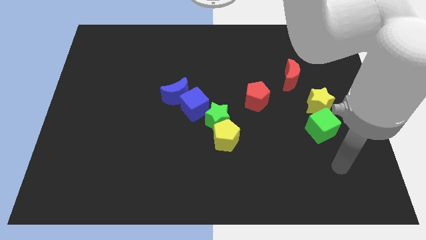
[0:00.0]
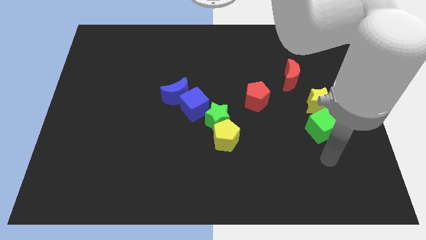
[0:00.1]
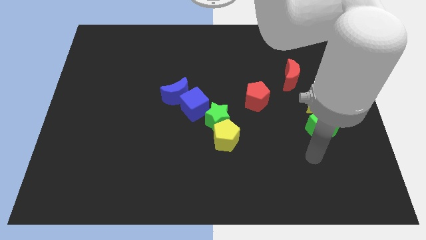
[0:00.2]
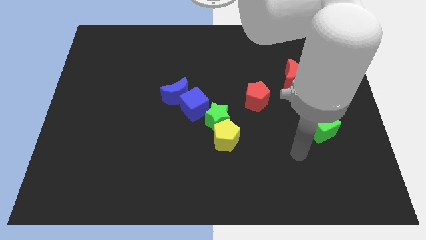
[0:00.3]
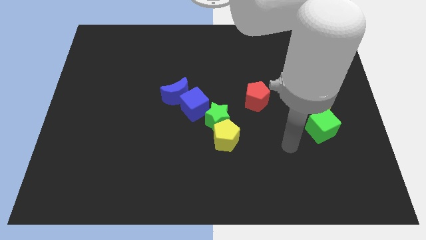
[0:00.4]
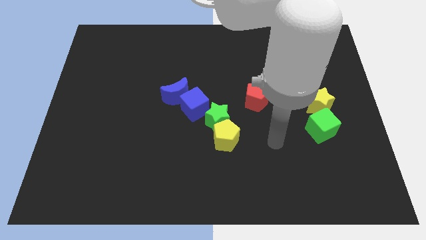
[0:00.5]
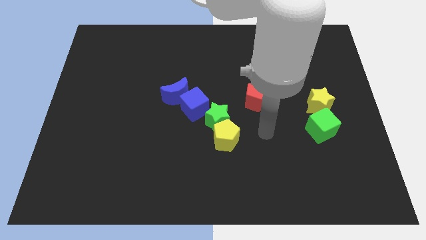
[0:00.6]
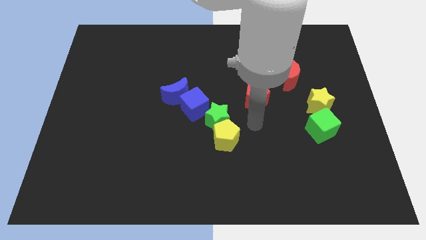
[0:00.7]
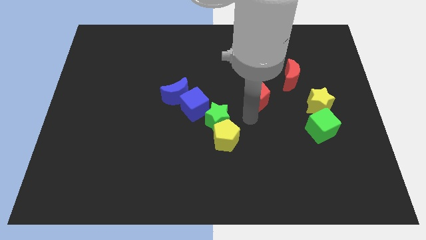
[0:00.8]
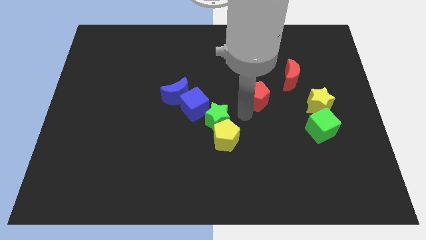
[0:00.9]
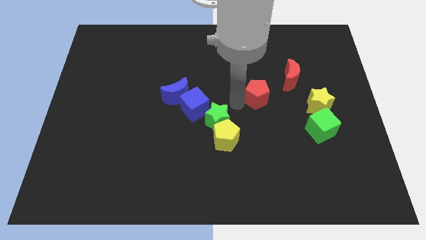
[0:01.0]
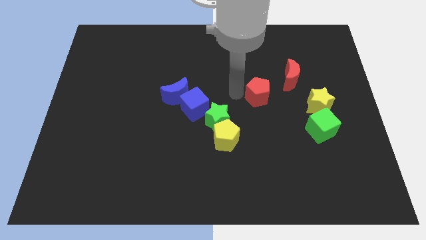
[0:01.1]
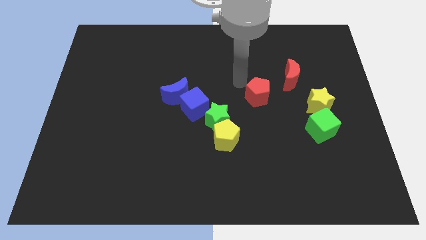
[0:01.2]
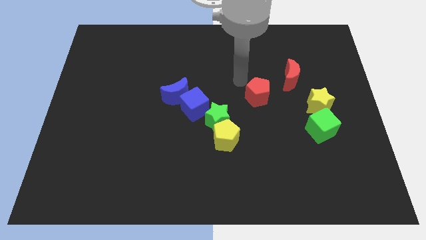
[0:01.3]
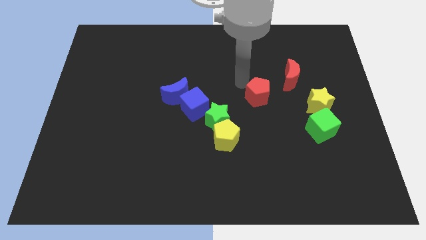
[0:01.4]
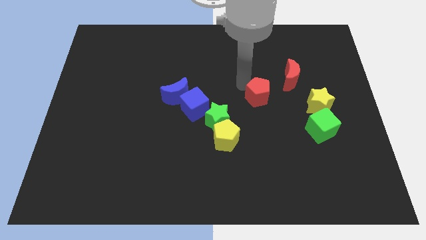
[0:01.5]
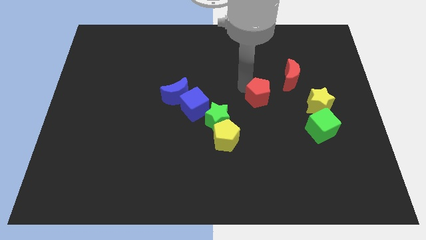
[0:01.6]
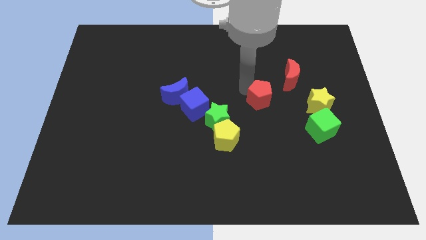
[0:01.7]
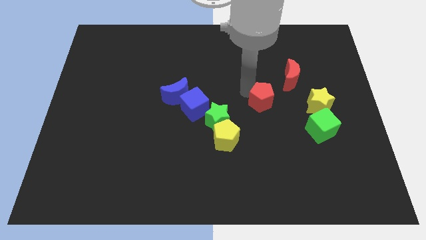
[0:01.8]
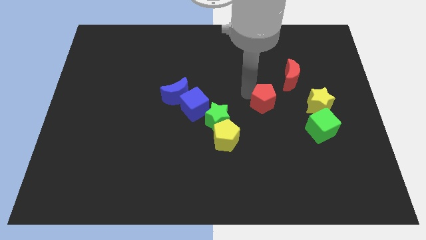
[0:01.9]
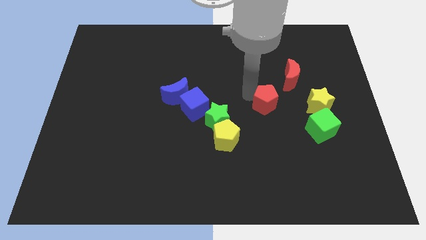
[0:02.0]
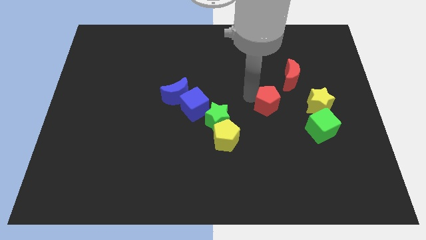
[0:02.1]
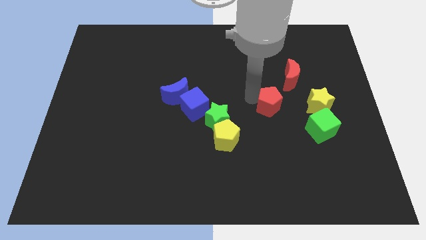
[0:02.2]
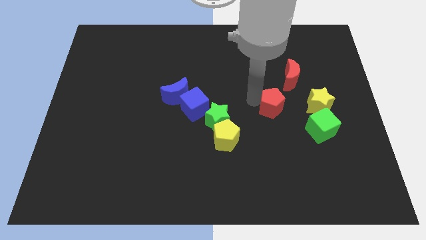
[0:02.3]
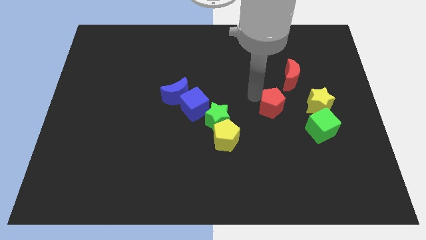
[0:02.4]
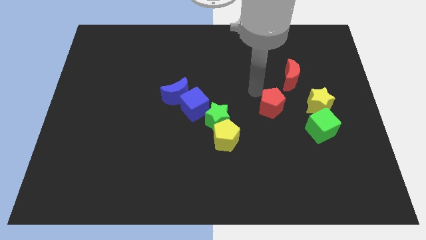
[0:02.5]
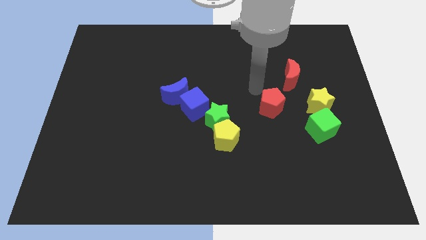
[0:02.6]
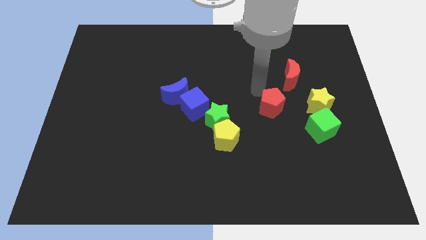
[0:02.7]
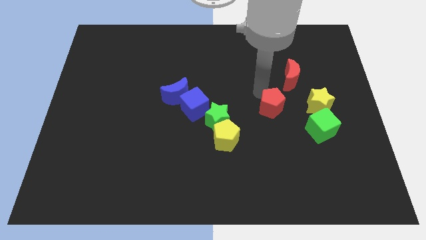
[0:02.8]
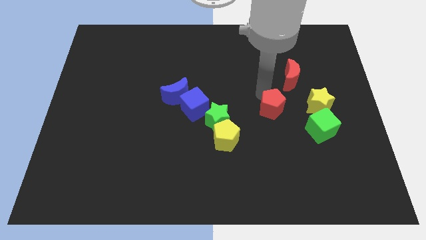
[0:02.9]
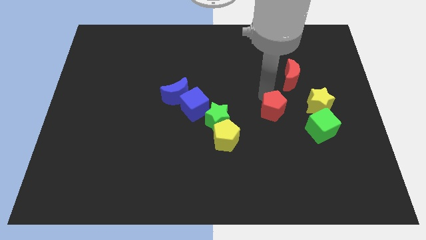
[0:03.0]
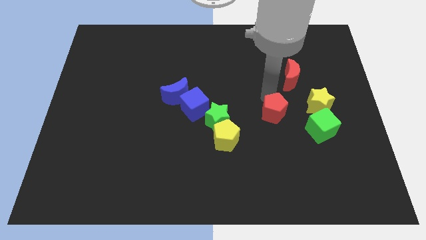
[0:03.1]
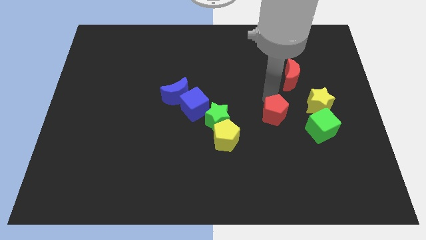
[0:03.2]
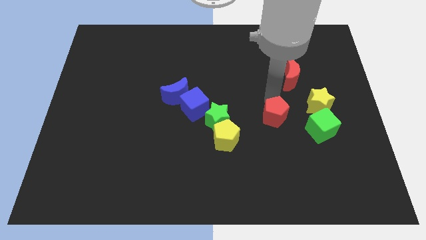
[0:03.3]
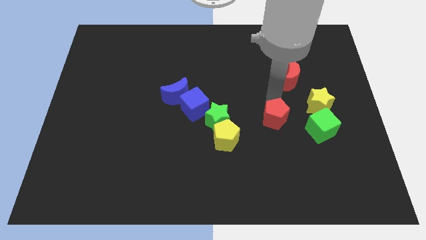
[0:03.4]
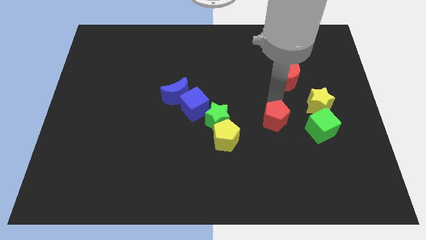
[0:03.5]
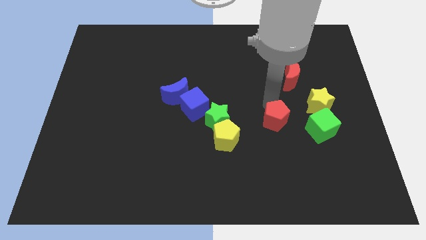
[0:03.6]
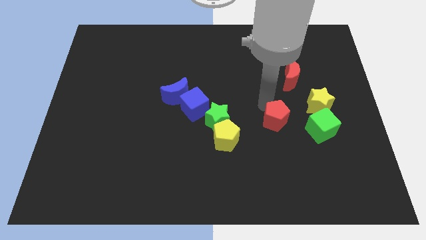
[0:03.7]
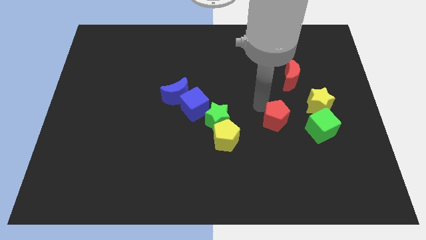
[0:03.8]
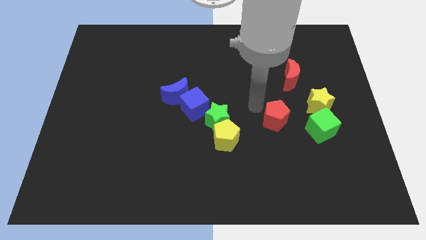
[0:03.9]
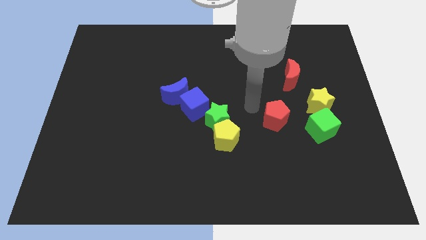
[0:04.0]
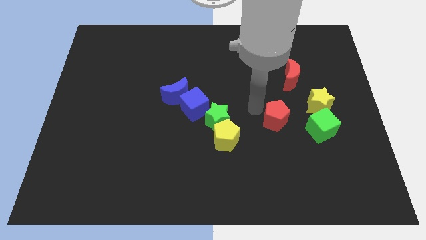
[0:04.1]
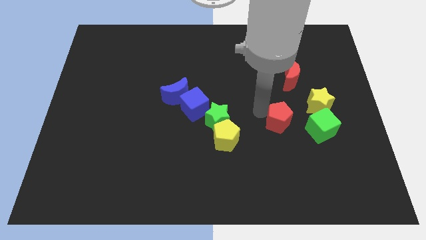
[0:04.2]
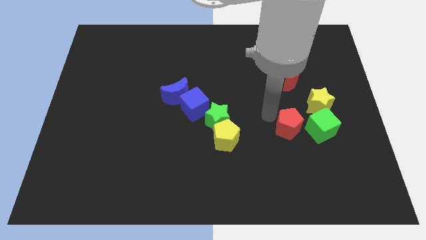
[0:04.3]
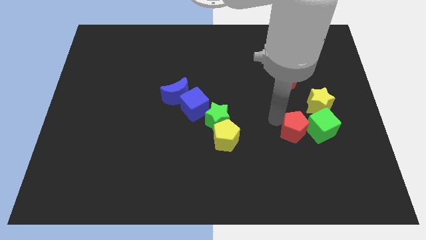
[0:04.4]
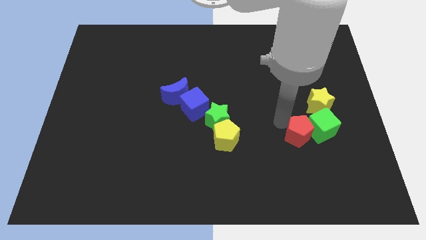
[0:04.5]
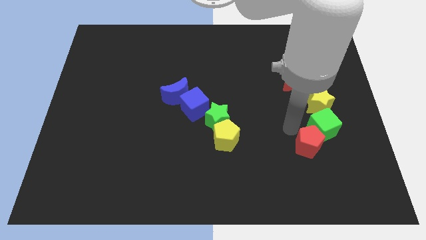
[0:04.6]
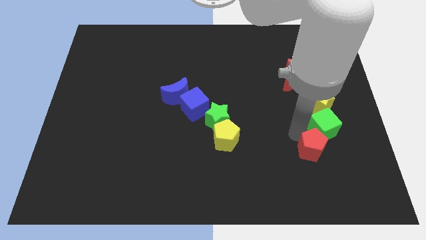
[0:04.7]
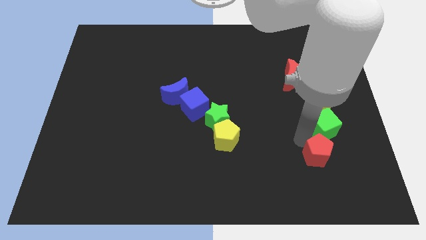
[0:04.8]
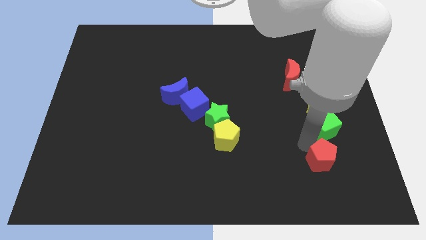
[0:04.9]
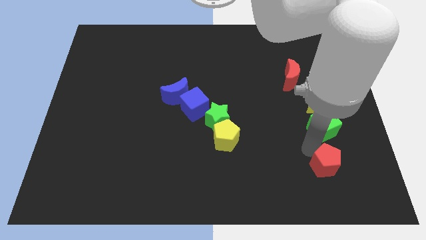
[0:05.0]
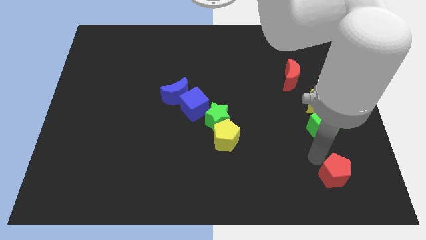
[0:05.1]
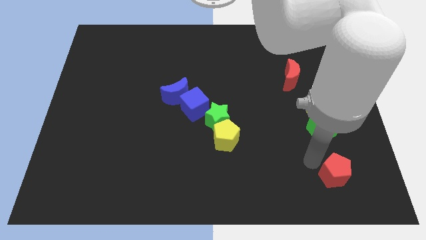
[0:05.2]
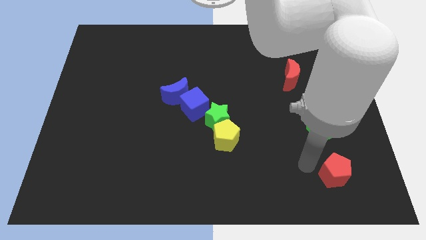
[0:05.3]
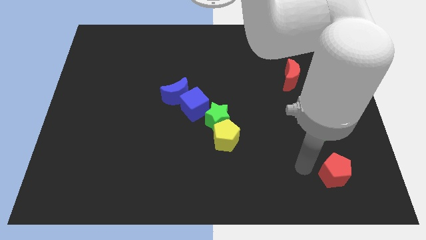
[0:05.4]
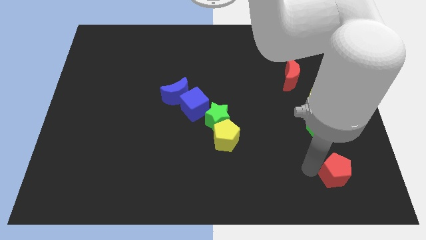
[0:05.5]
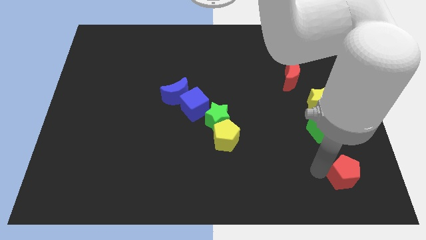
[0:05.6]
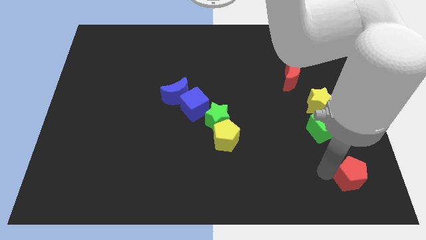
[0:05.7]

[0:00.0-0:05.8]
slide the red pentagon to the lower right corner
